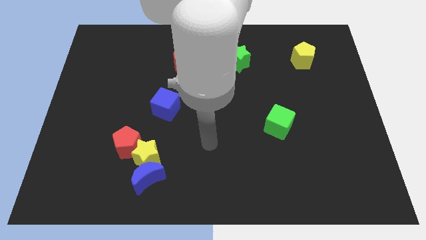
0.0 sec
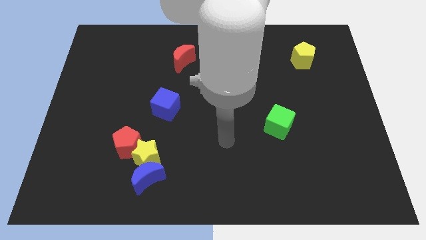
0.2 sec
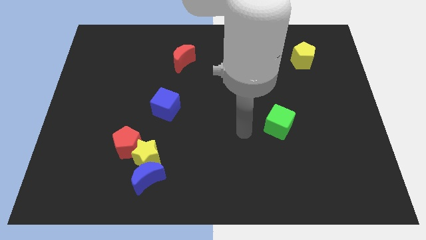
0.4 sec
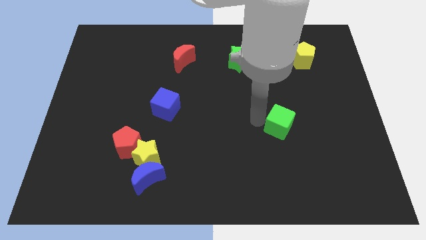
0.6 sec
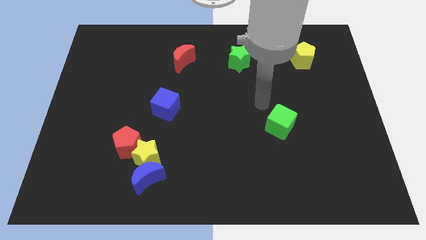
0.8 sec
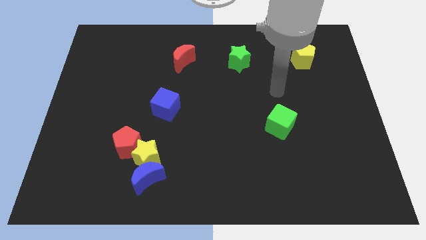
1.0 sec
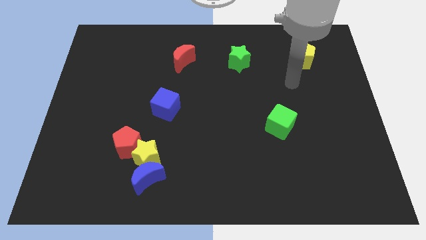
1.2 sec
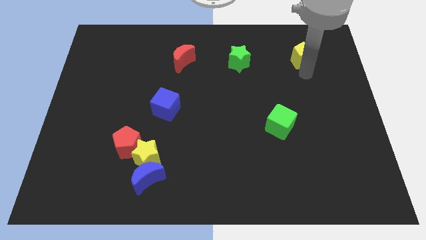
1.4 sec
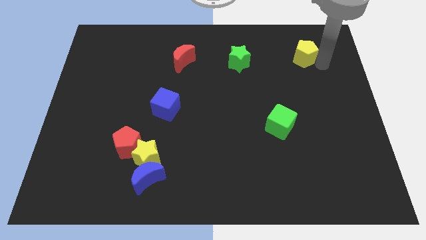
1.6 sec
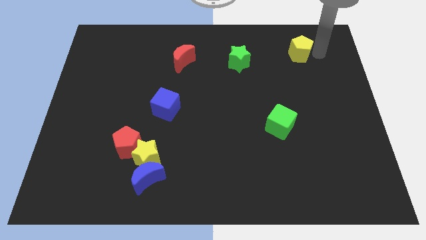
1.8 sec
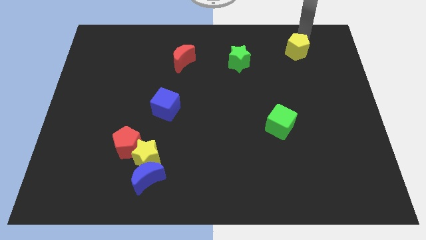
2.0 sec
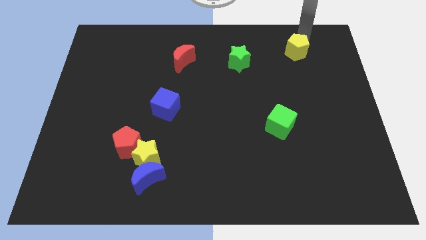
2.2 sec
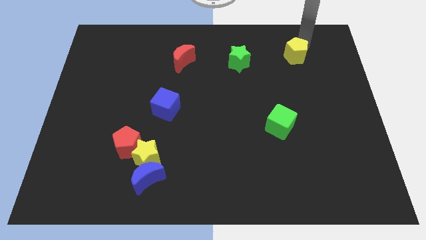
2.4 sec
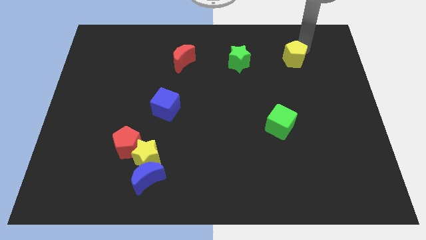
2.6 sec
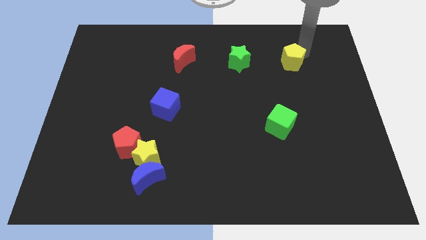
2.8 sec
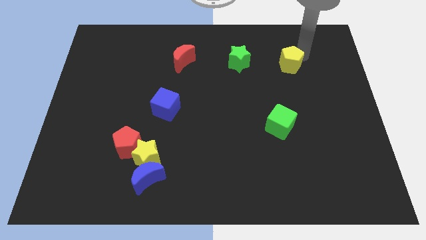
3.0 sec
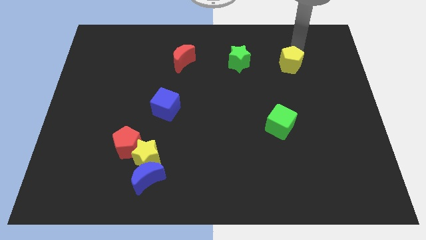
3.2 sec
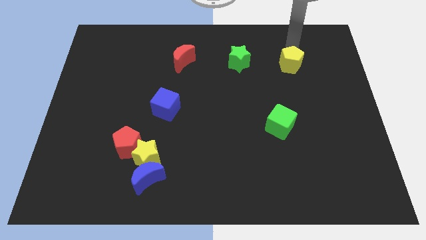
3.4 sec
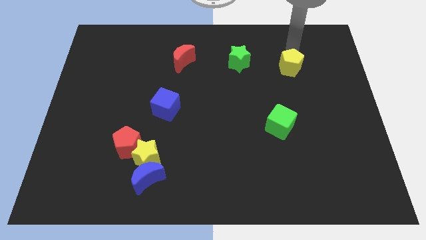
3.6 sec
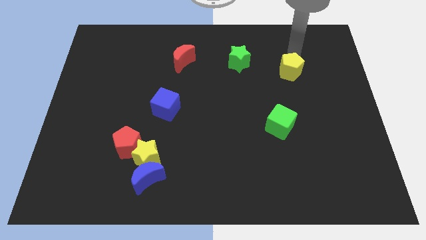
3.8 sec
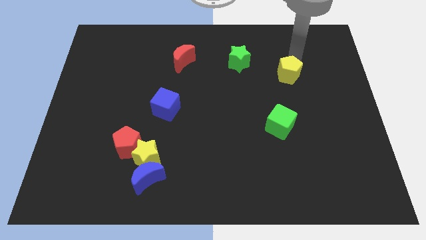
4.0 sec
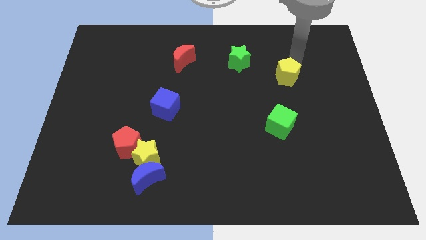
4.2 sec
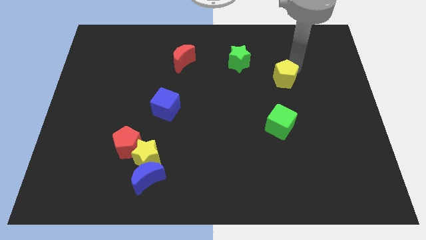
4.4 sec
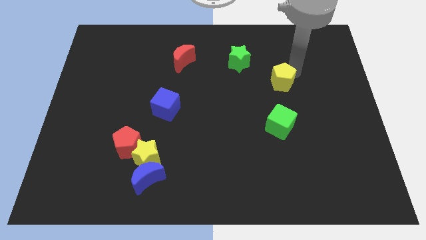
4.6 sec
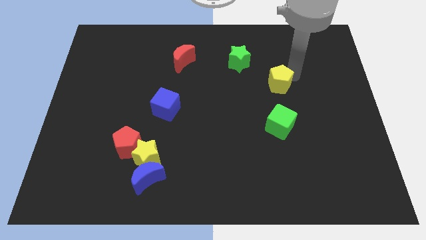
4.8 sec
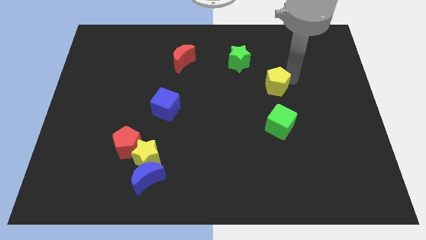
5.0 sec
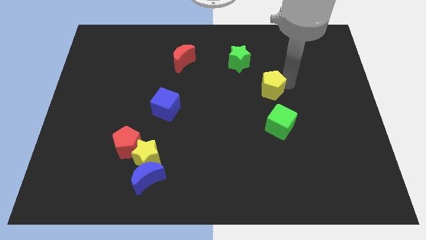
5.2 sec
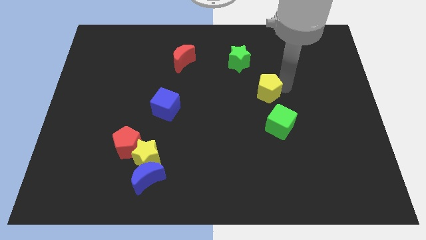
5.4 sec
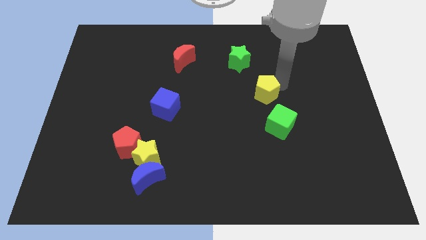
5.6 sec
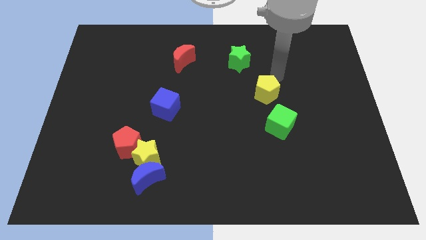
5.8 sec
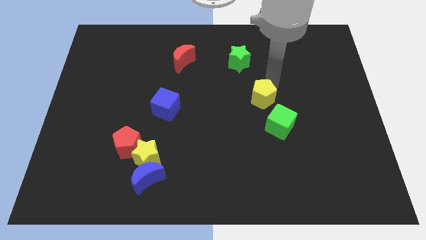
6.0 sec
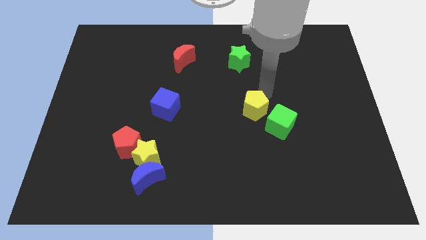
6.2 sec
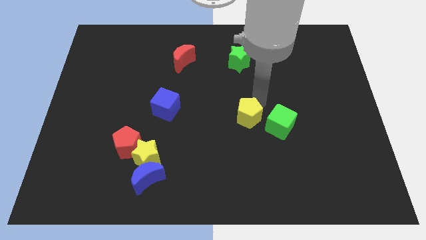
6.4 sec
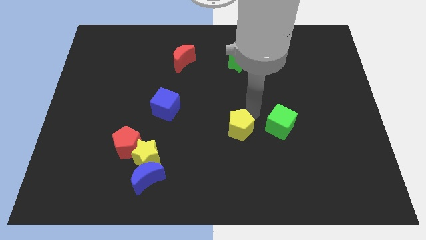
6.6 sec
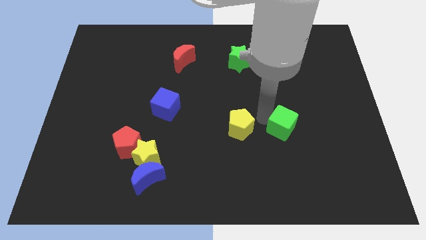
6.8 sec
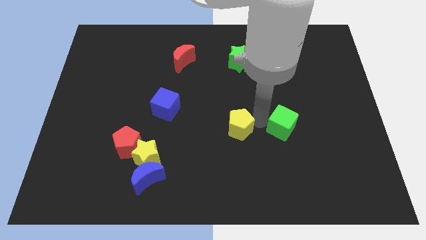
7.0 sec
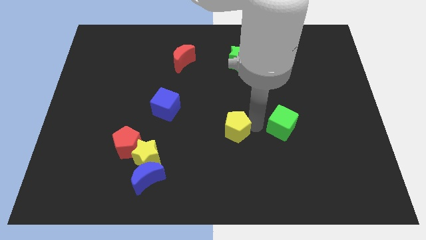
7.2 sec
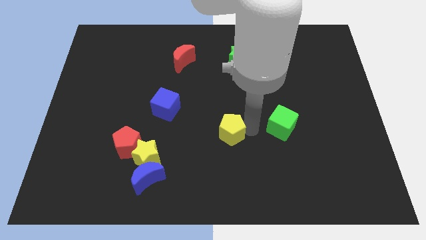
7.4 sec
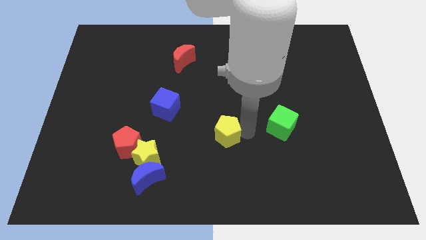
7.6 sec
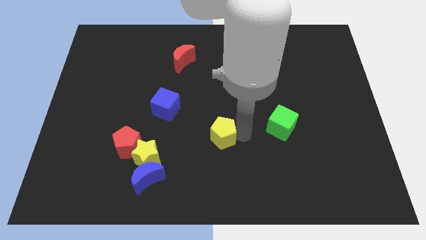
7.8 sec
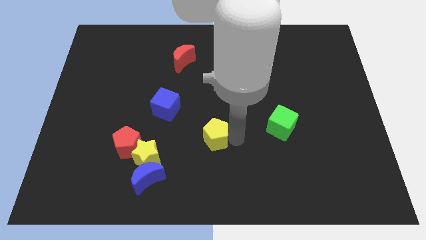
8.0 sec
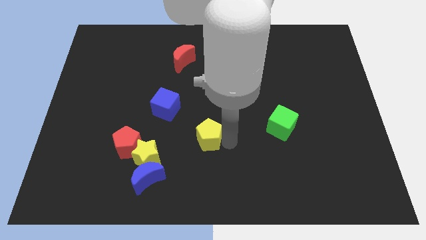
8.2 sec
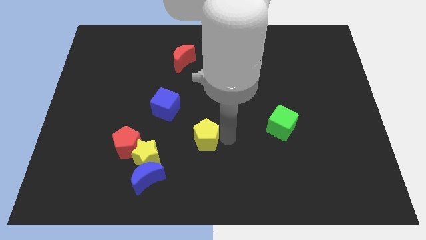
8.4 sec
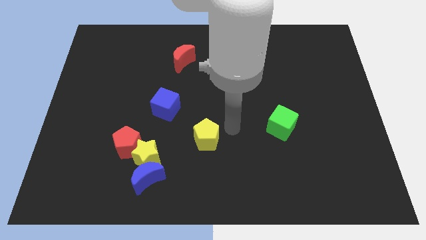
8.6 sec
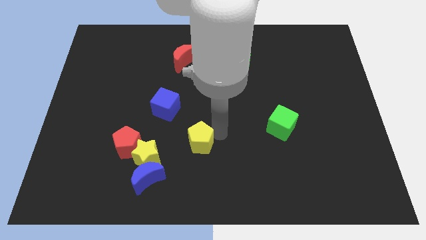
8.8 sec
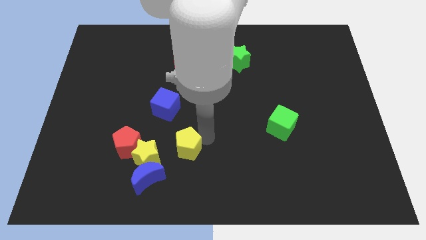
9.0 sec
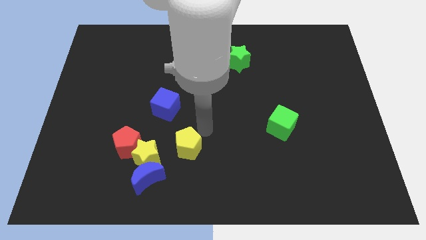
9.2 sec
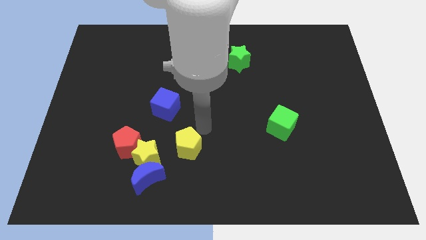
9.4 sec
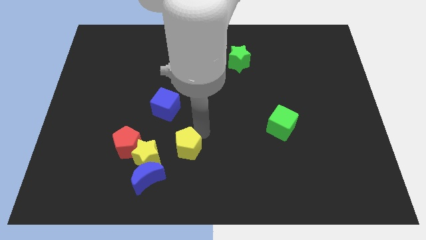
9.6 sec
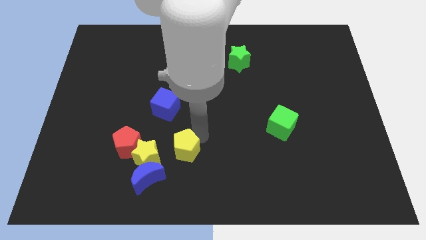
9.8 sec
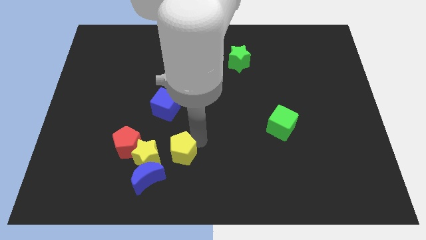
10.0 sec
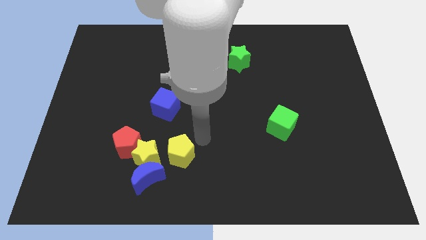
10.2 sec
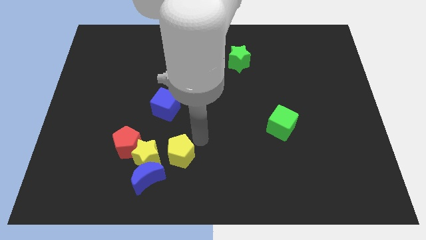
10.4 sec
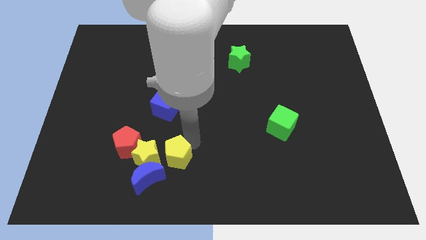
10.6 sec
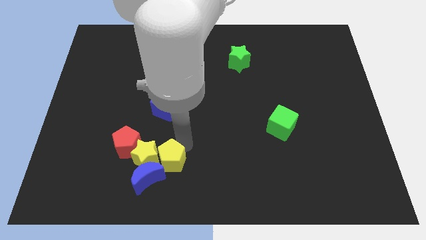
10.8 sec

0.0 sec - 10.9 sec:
slide the yellow pentagon next to the blue moon

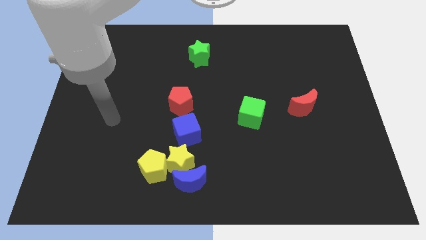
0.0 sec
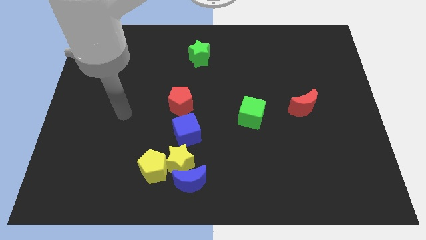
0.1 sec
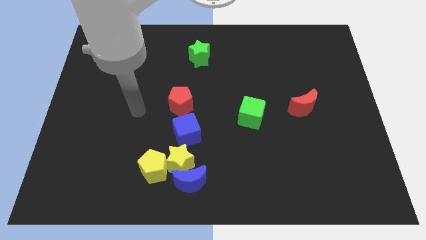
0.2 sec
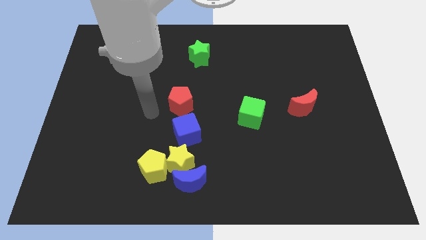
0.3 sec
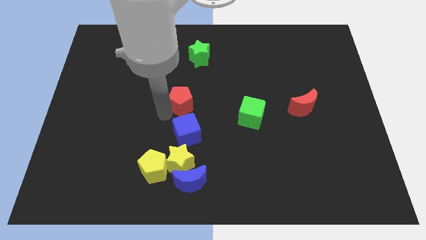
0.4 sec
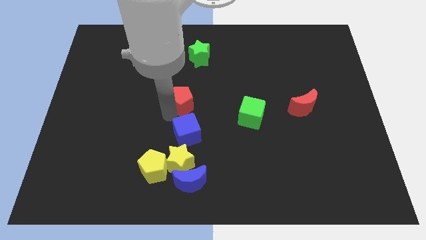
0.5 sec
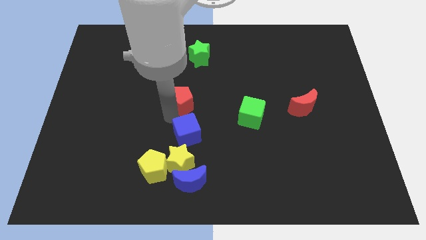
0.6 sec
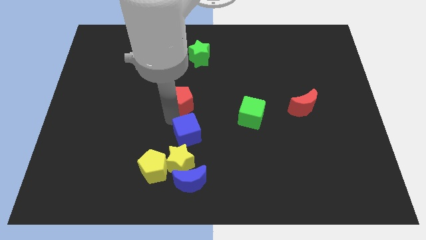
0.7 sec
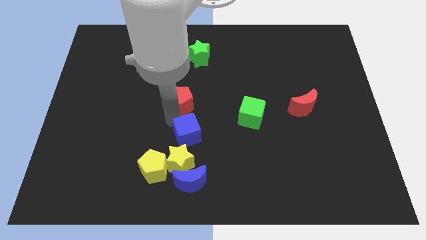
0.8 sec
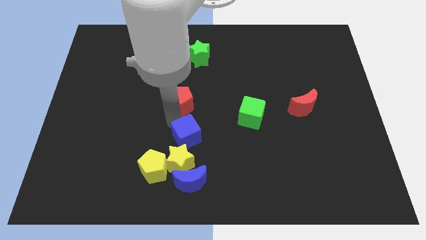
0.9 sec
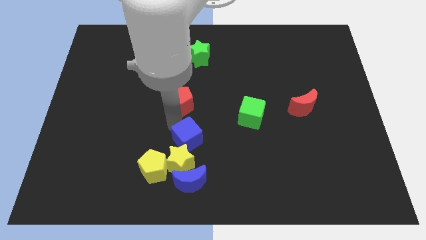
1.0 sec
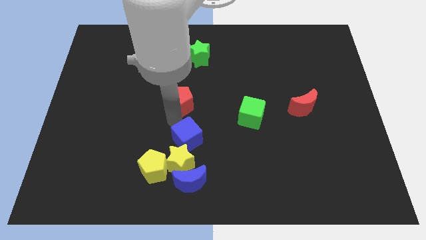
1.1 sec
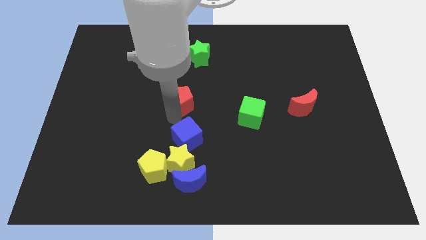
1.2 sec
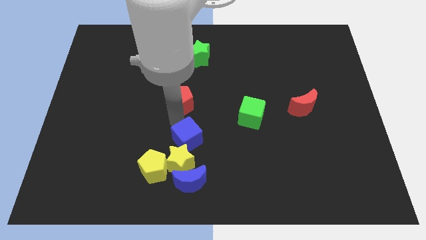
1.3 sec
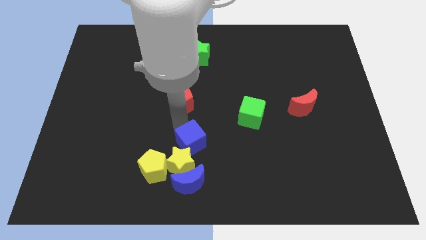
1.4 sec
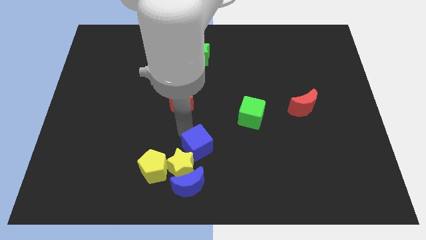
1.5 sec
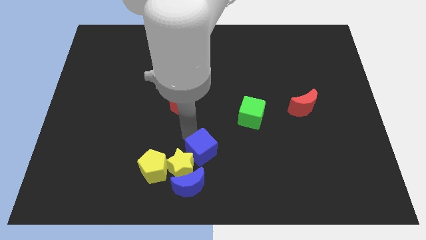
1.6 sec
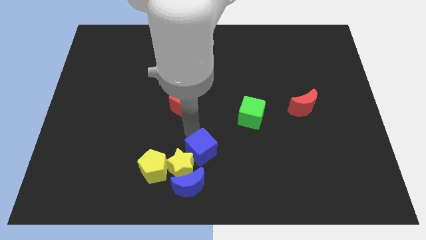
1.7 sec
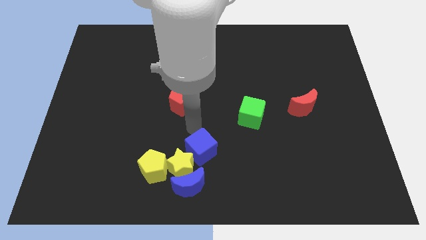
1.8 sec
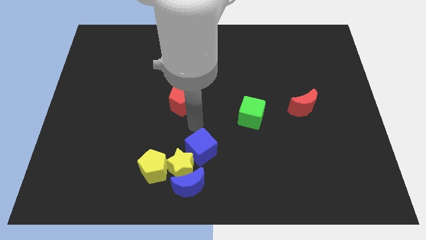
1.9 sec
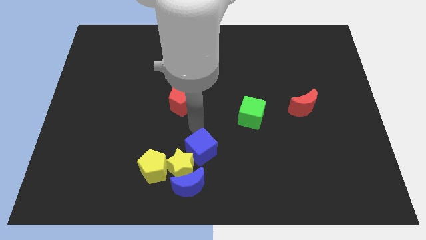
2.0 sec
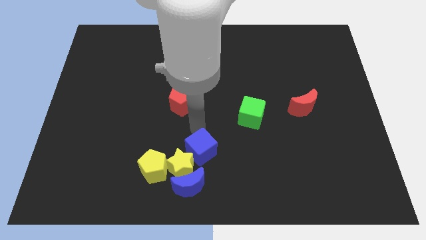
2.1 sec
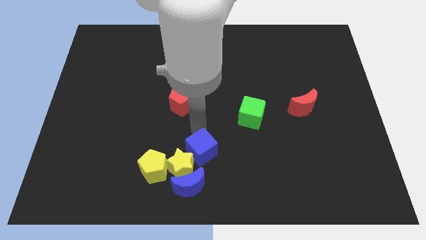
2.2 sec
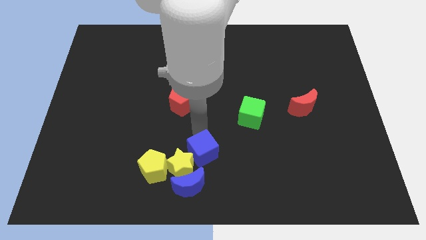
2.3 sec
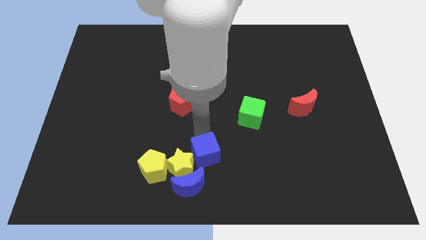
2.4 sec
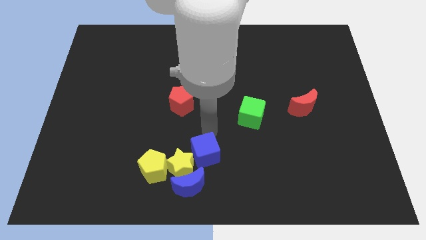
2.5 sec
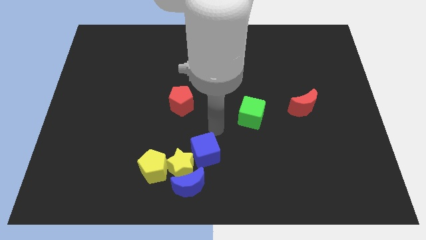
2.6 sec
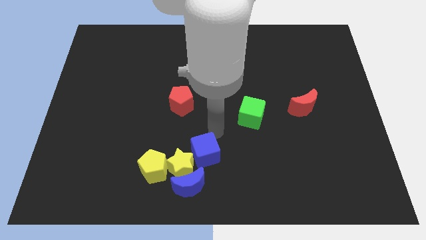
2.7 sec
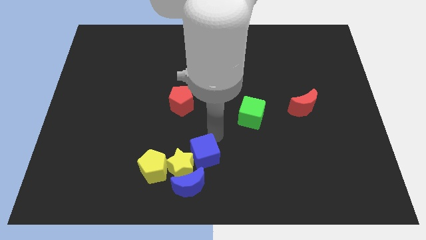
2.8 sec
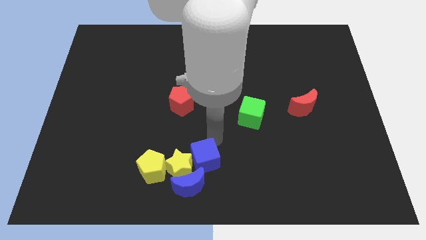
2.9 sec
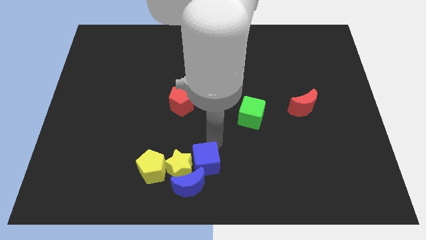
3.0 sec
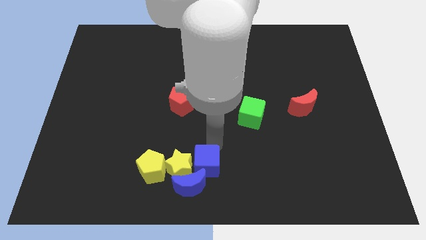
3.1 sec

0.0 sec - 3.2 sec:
move the blue cube towards the blue moon
